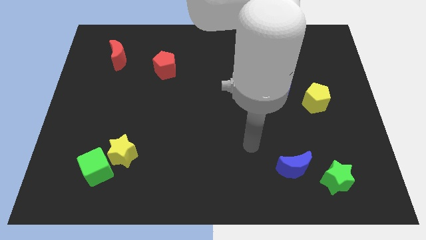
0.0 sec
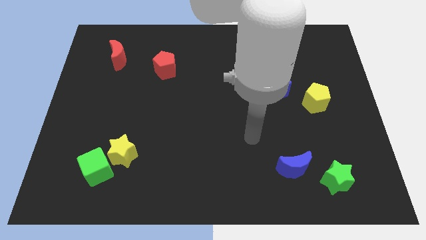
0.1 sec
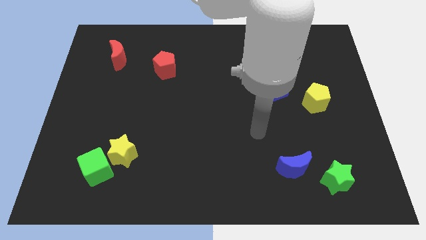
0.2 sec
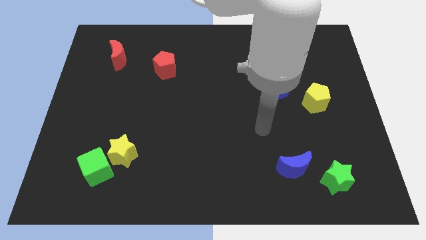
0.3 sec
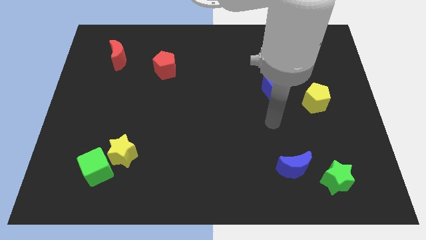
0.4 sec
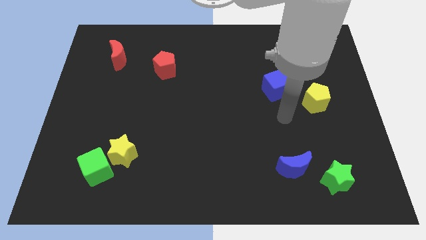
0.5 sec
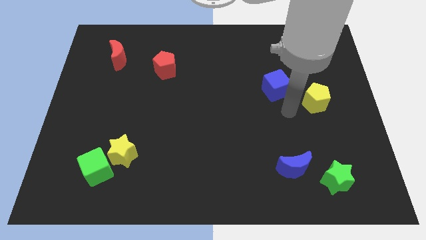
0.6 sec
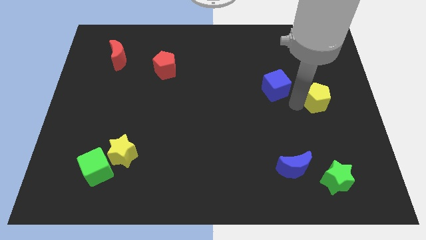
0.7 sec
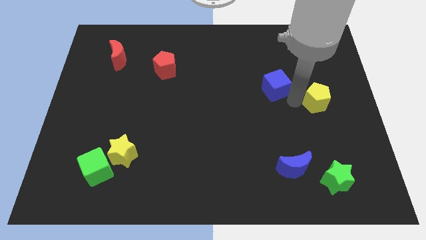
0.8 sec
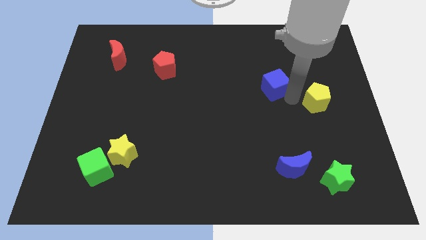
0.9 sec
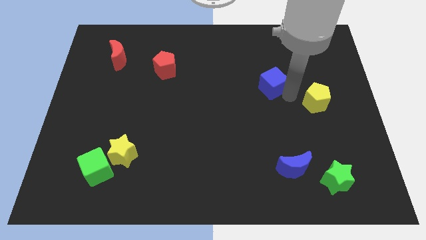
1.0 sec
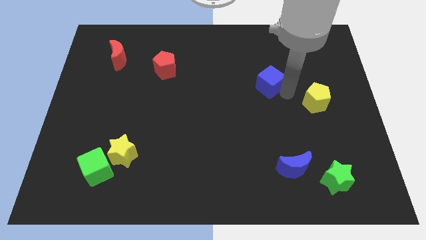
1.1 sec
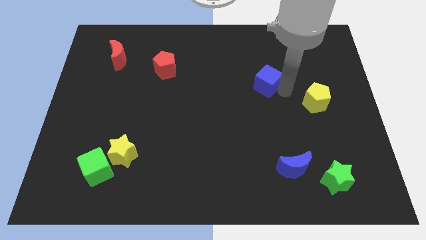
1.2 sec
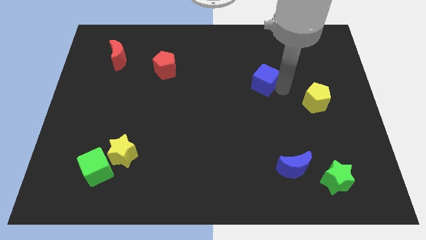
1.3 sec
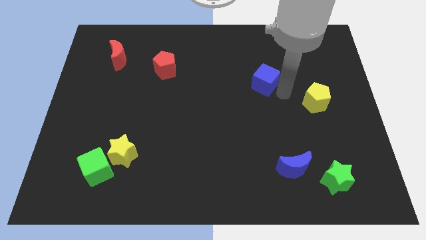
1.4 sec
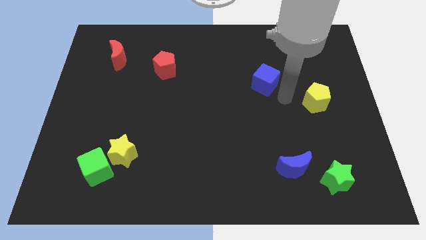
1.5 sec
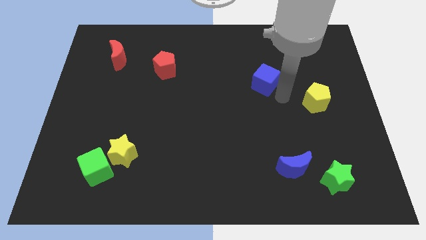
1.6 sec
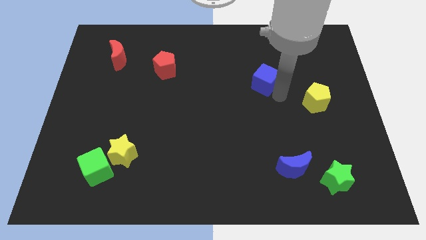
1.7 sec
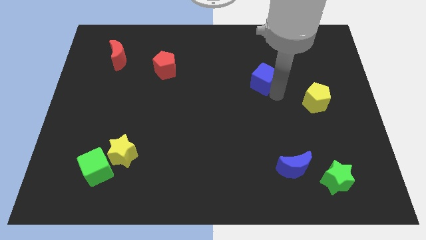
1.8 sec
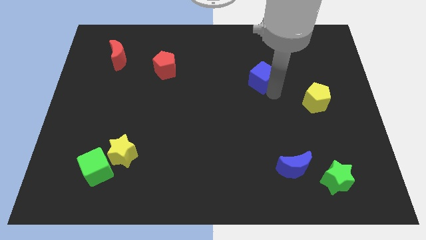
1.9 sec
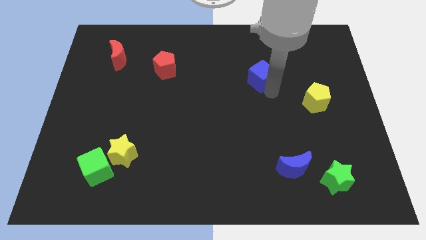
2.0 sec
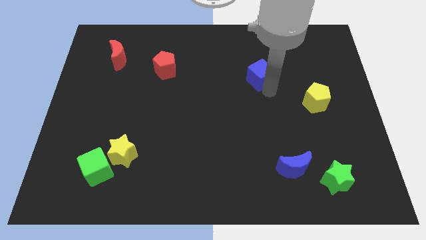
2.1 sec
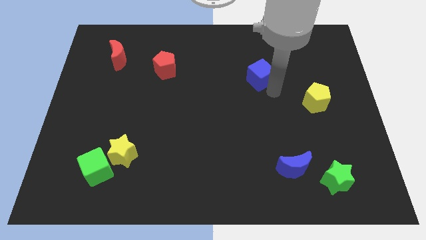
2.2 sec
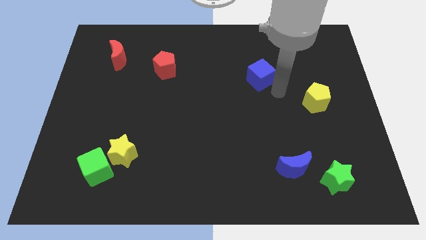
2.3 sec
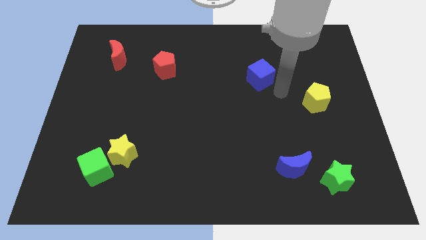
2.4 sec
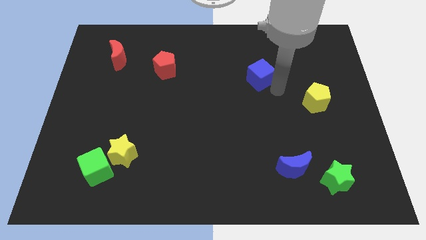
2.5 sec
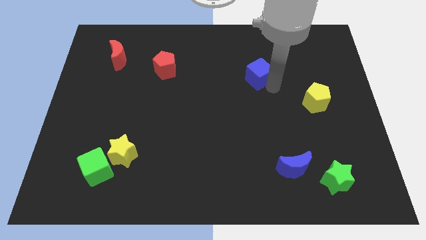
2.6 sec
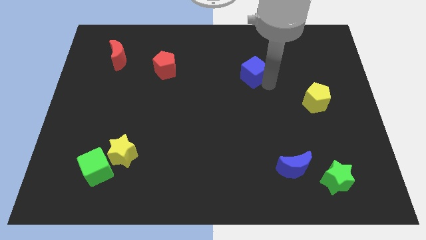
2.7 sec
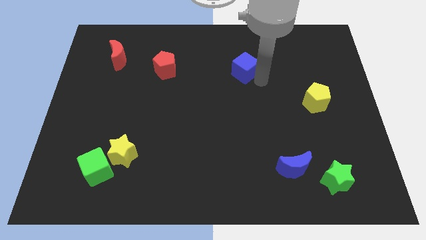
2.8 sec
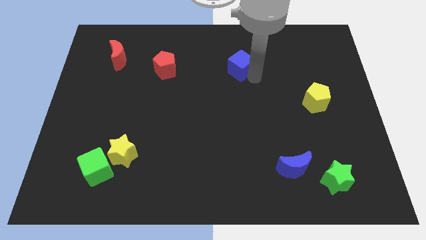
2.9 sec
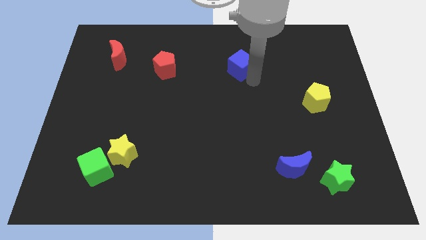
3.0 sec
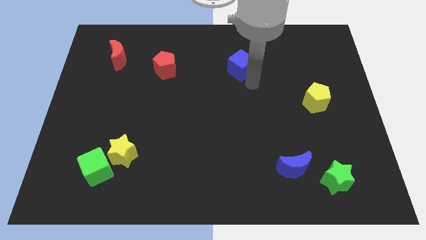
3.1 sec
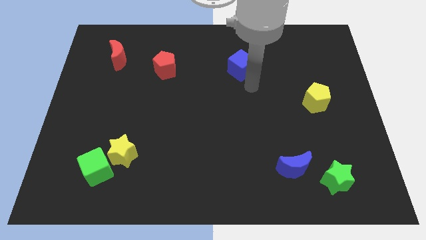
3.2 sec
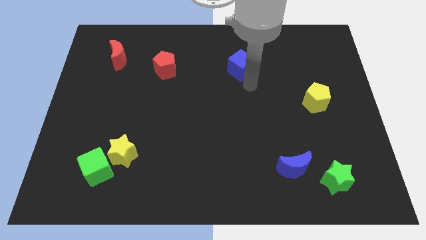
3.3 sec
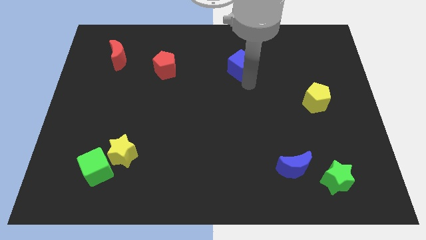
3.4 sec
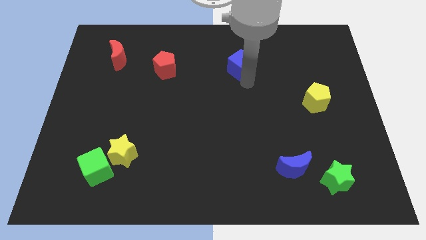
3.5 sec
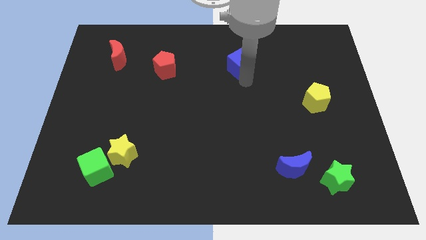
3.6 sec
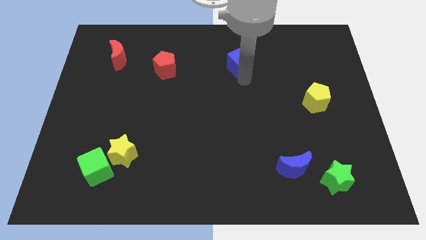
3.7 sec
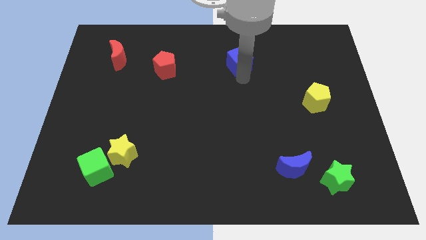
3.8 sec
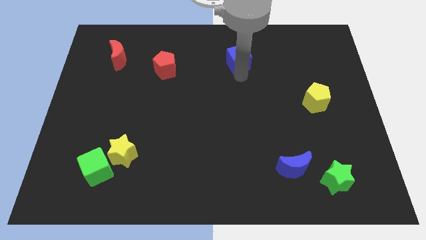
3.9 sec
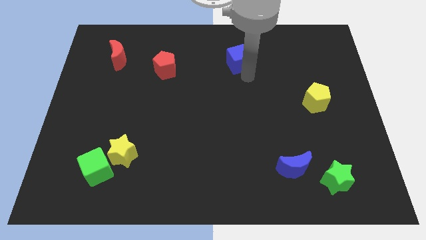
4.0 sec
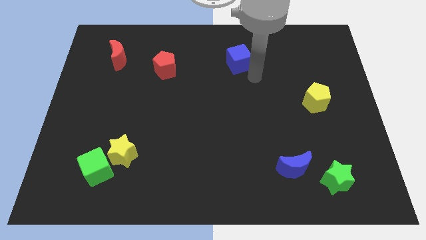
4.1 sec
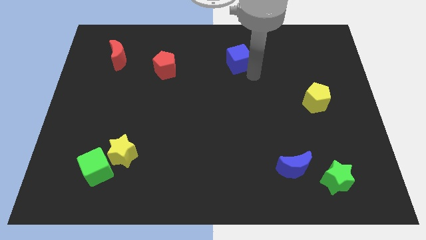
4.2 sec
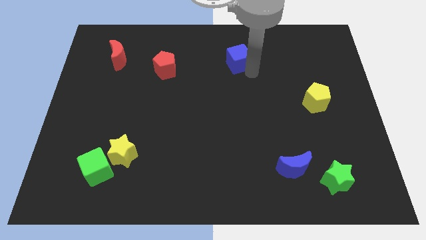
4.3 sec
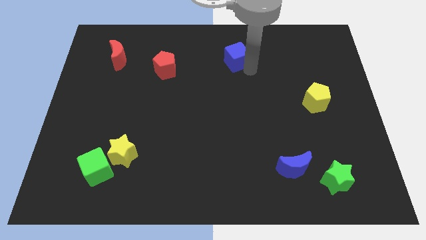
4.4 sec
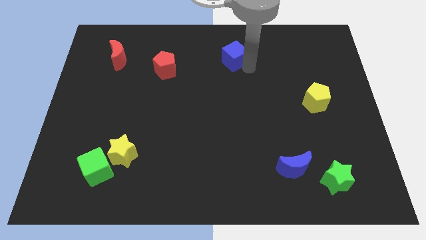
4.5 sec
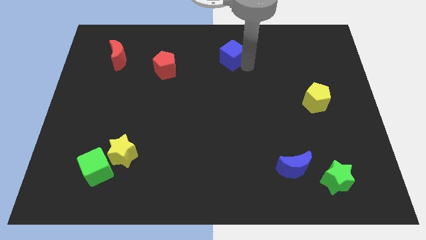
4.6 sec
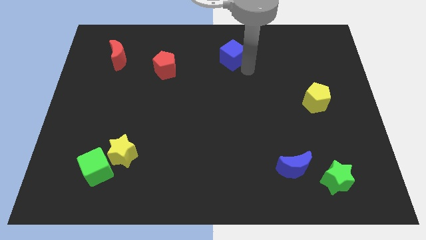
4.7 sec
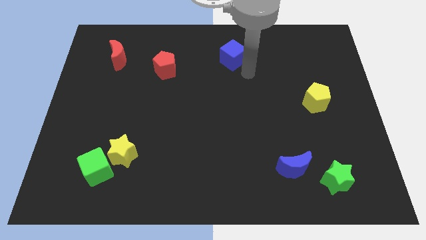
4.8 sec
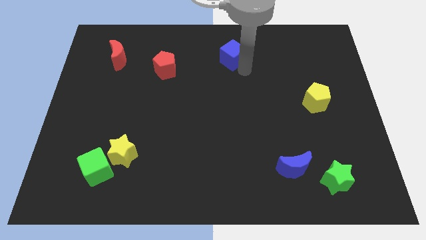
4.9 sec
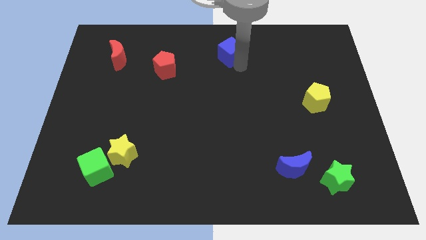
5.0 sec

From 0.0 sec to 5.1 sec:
slide the blue cube to the top side
